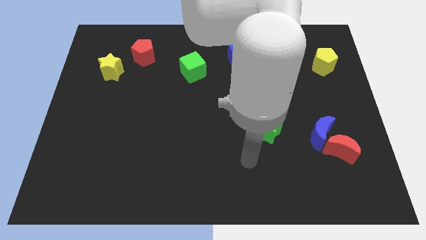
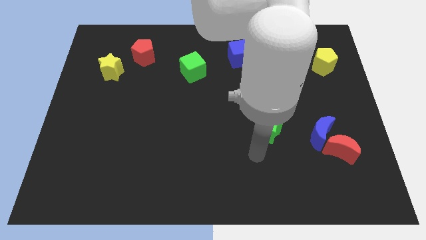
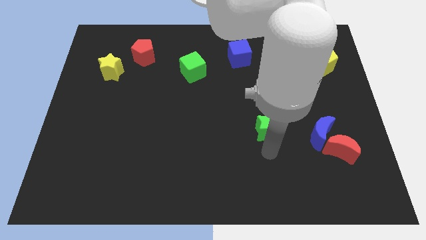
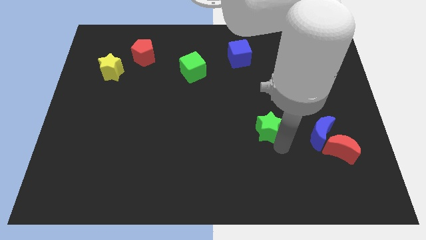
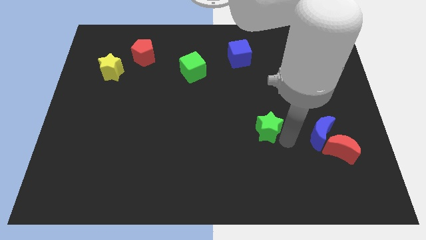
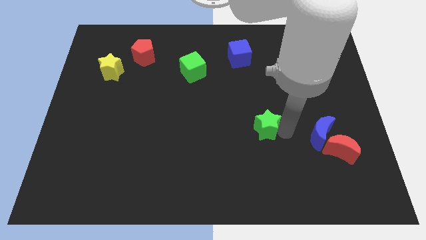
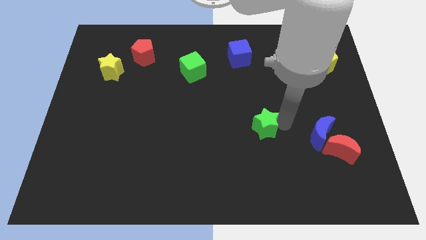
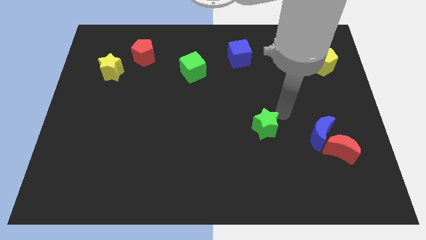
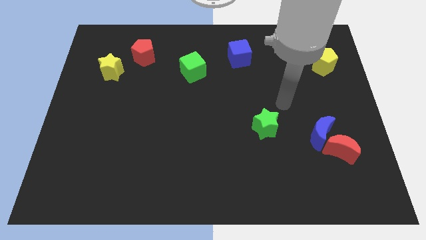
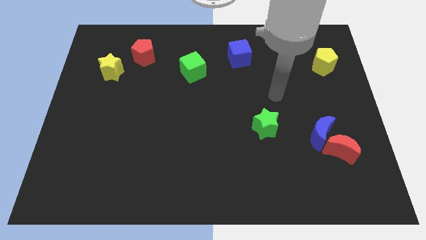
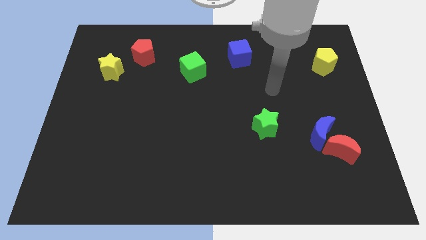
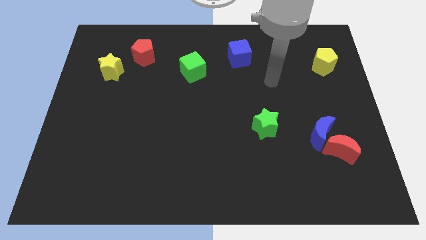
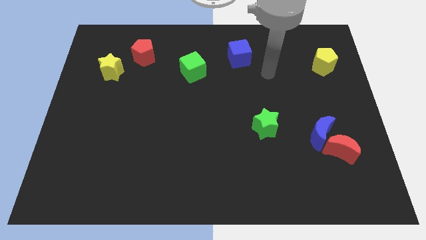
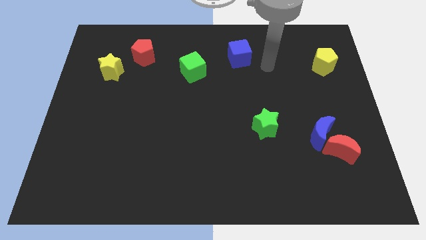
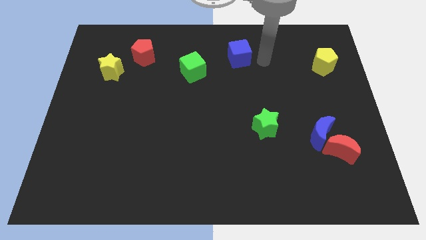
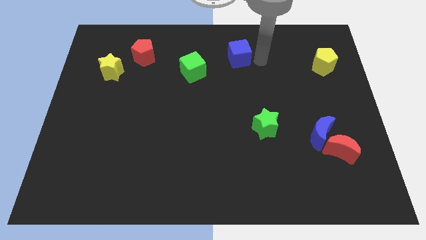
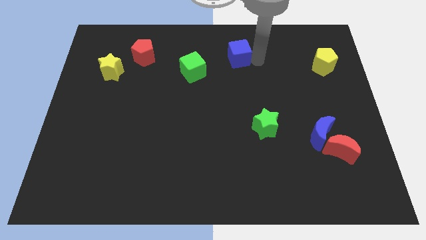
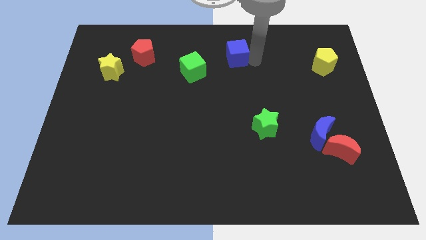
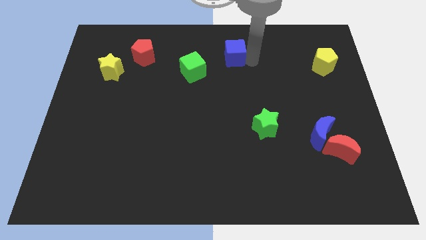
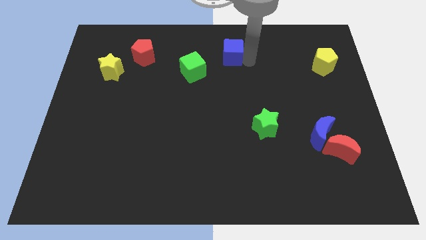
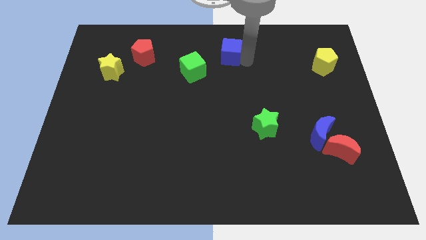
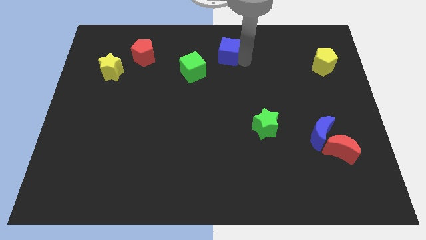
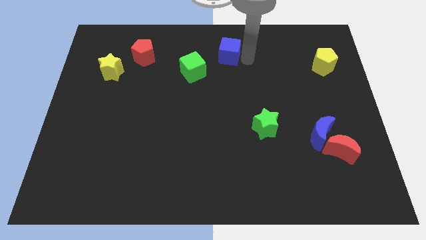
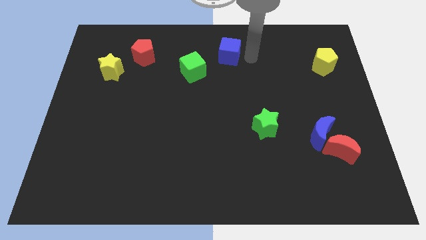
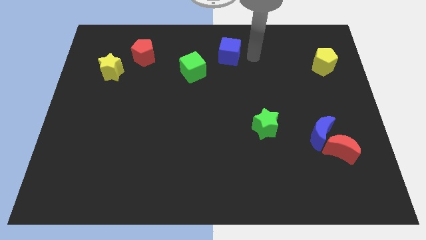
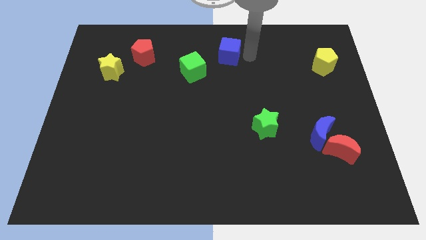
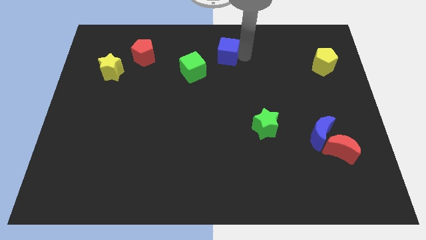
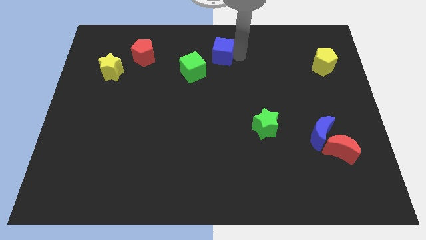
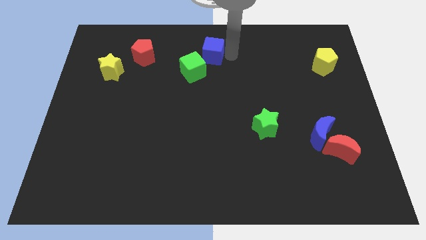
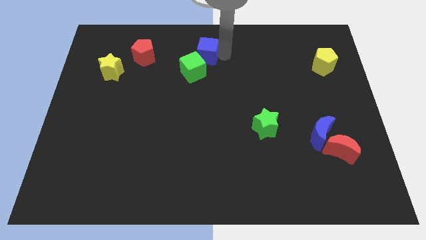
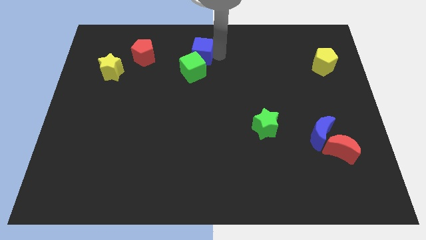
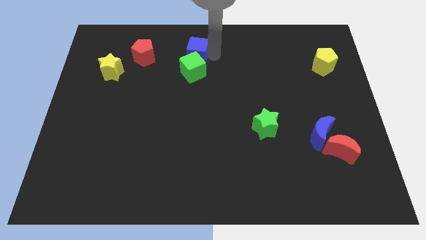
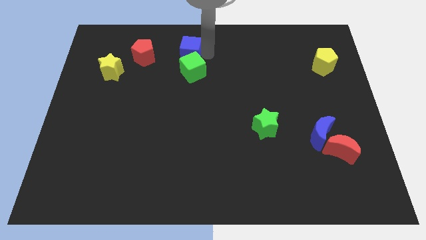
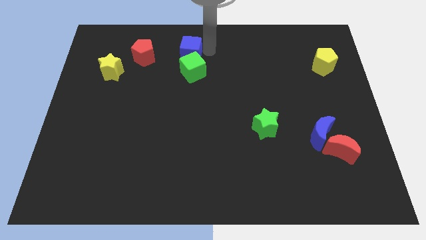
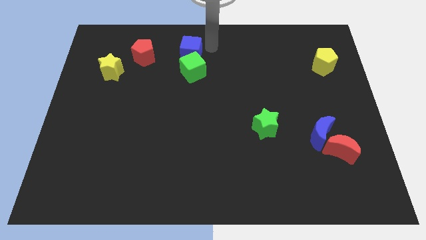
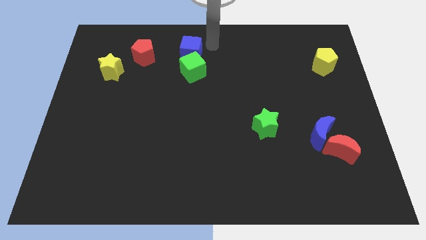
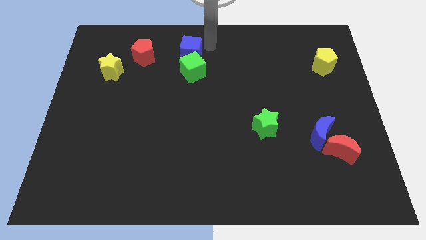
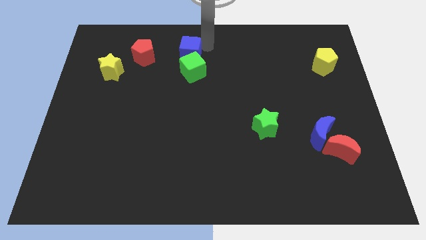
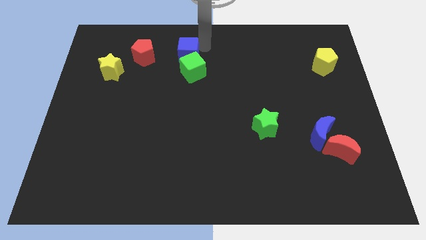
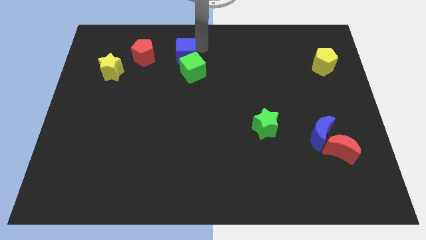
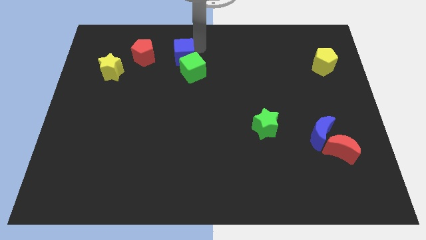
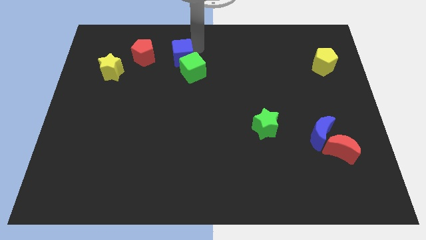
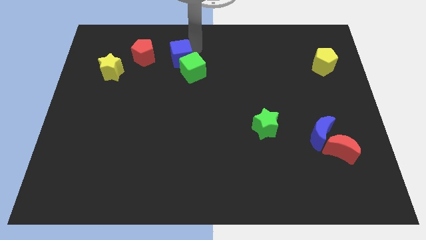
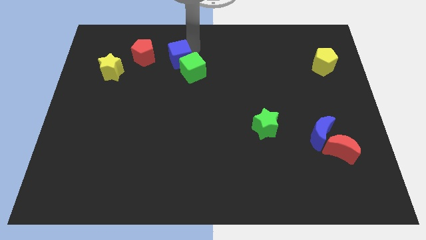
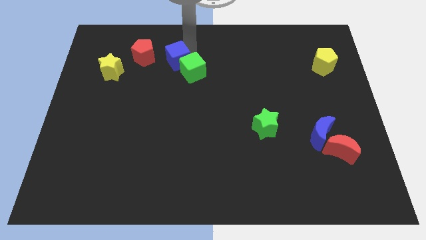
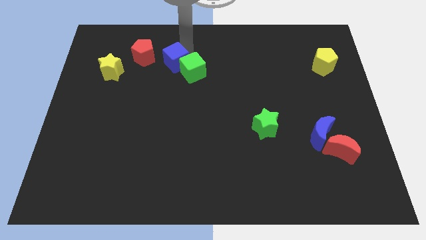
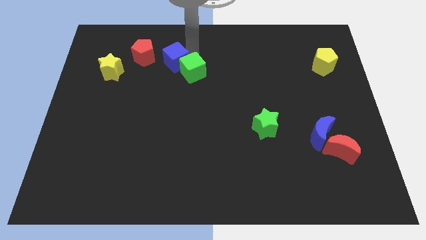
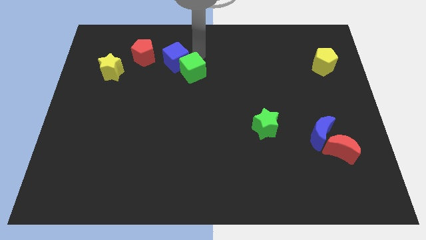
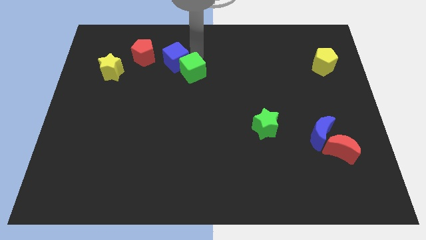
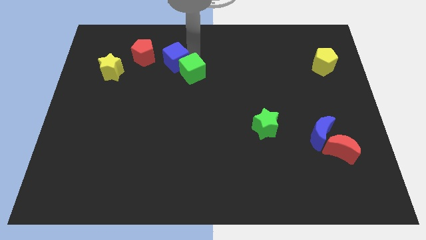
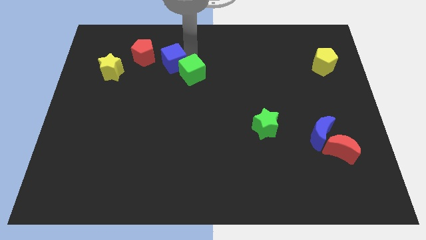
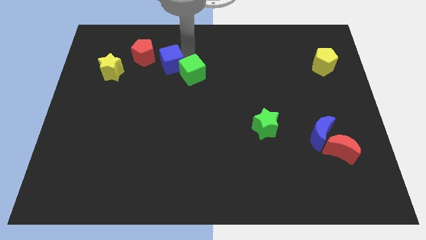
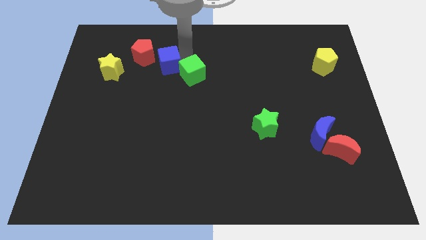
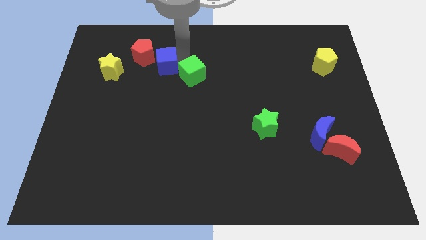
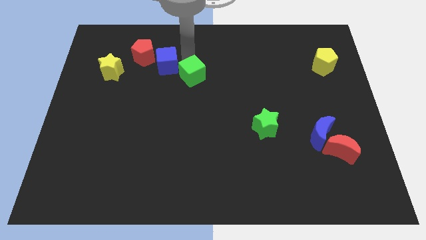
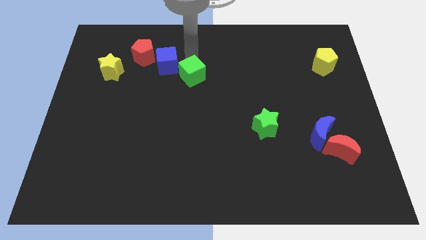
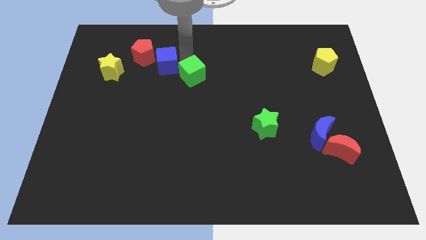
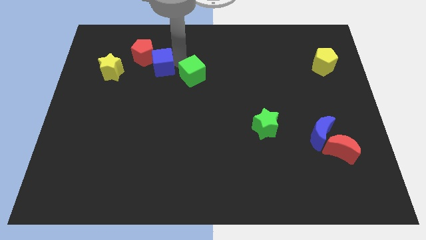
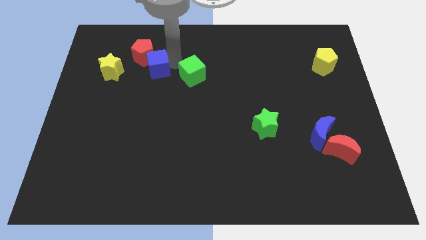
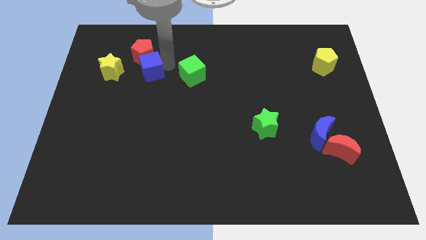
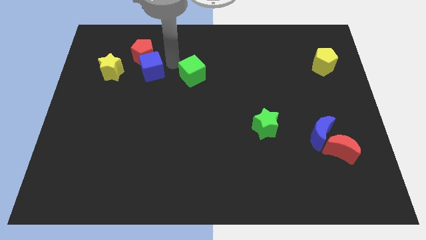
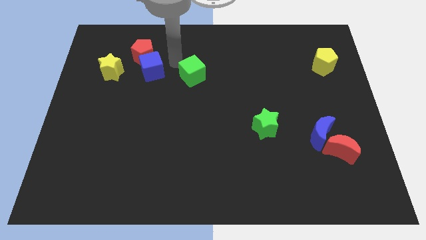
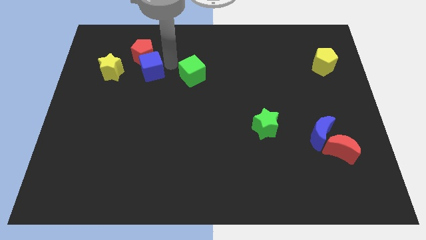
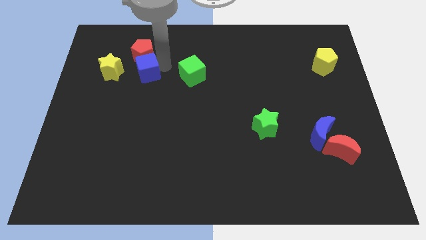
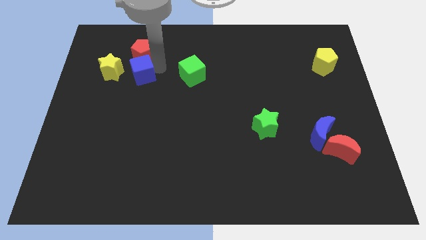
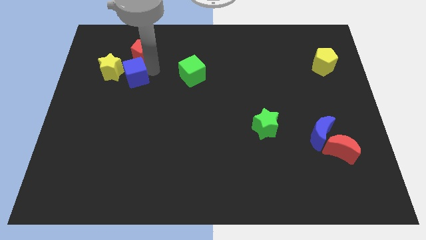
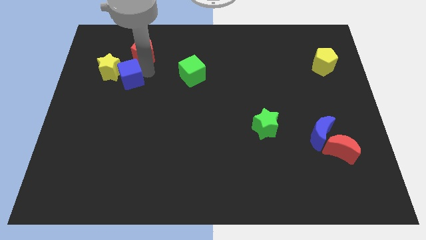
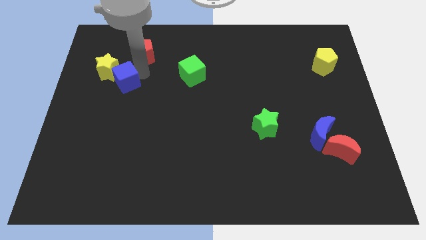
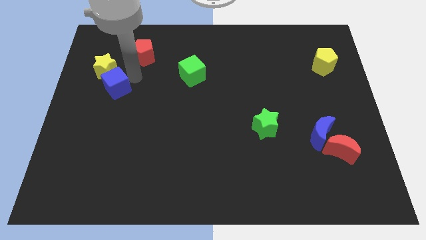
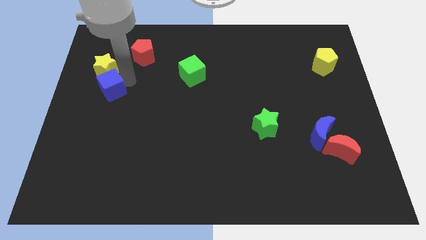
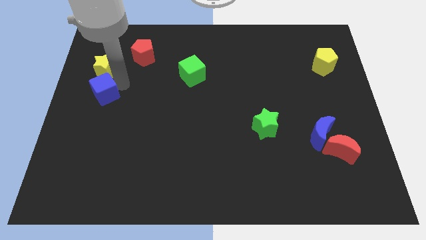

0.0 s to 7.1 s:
slide the blue cube to the center left
